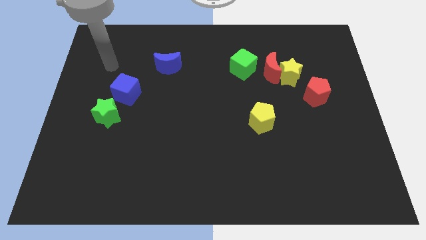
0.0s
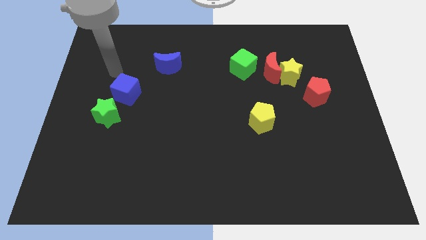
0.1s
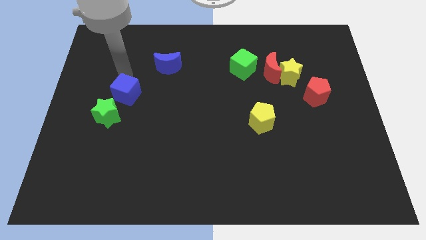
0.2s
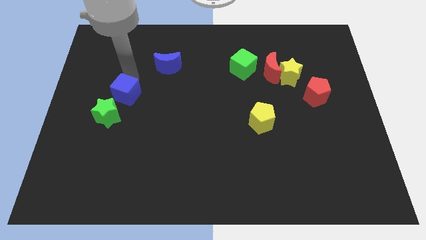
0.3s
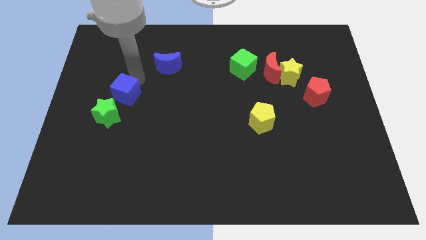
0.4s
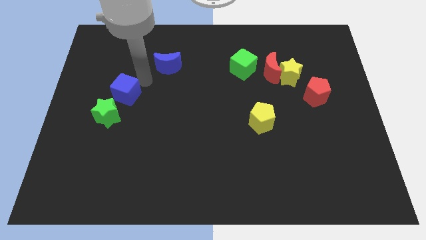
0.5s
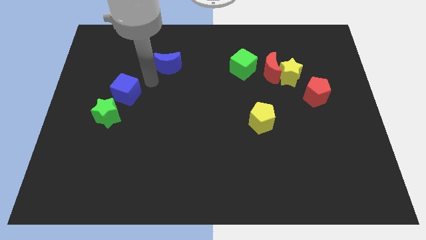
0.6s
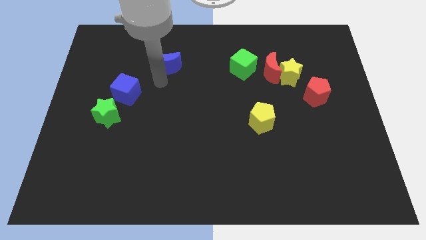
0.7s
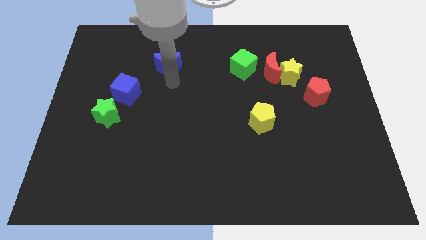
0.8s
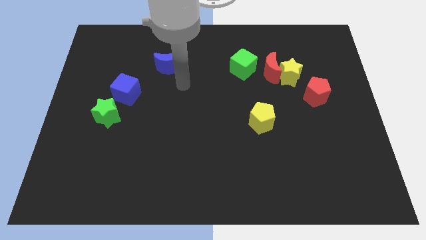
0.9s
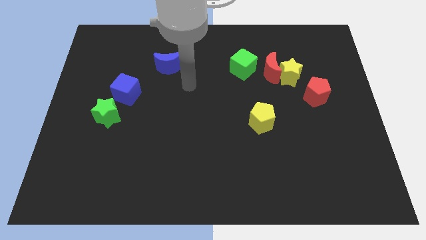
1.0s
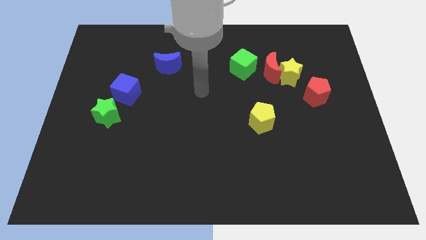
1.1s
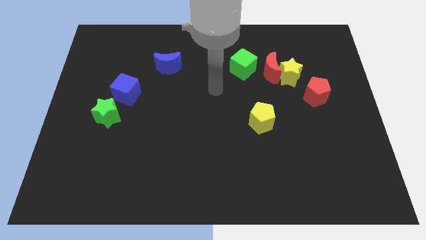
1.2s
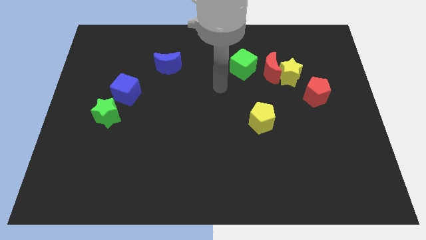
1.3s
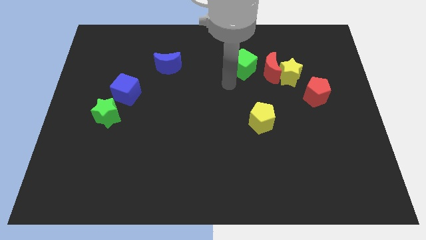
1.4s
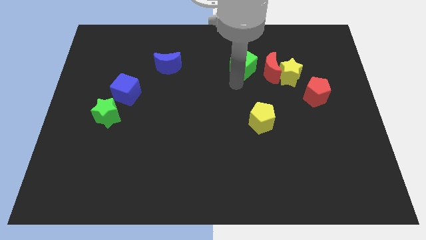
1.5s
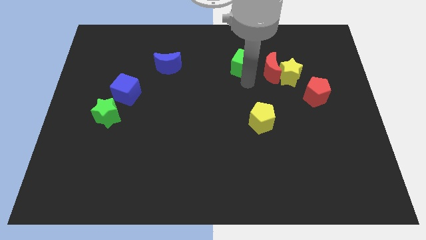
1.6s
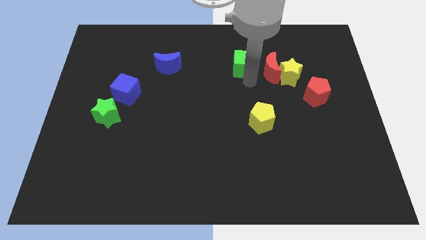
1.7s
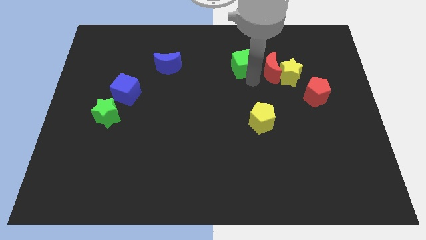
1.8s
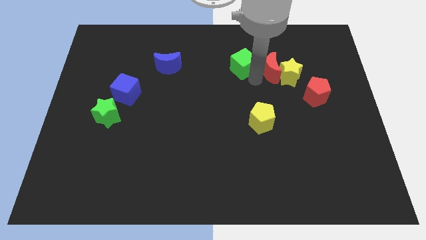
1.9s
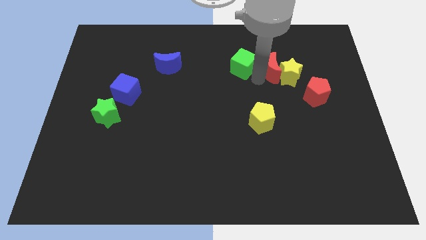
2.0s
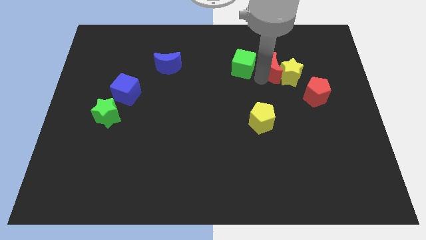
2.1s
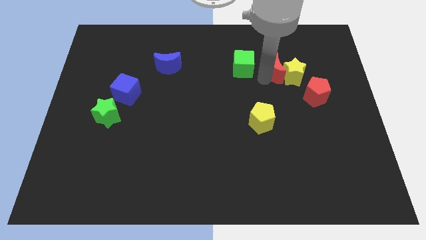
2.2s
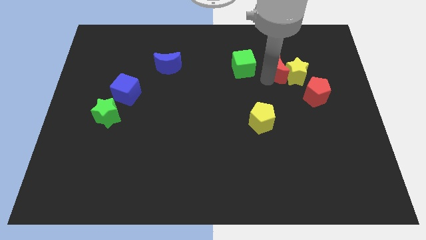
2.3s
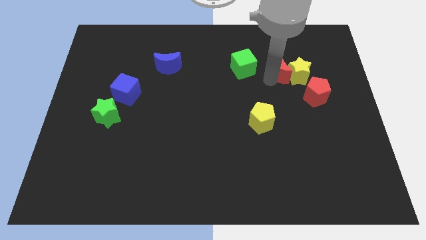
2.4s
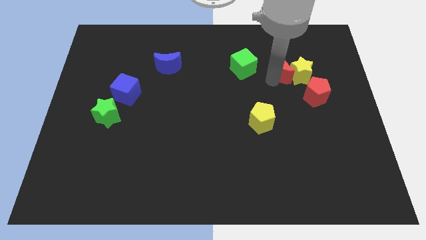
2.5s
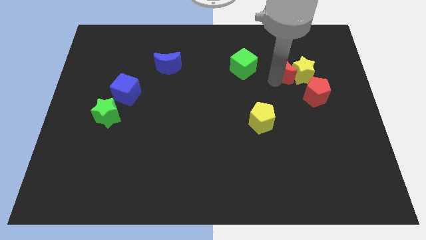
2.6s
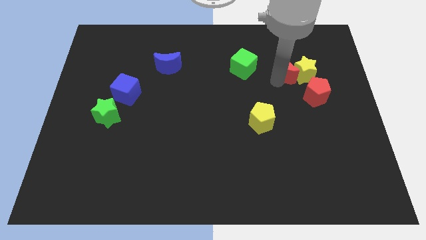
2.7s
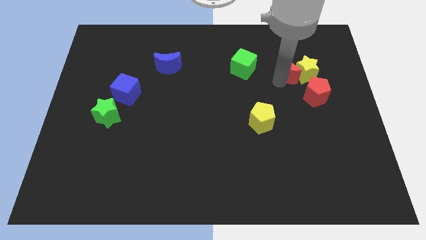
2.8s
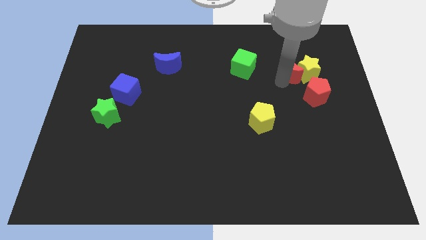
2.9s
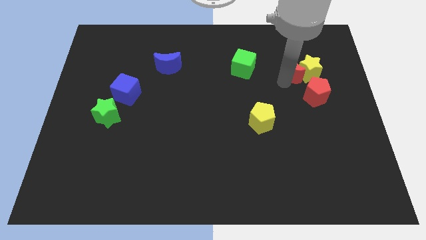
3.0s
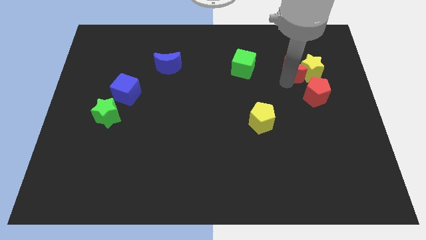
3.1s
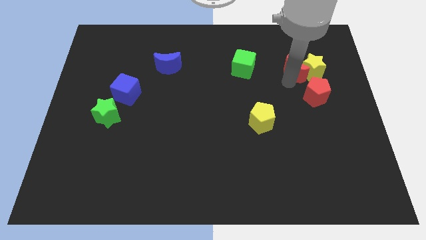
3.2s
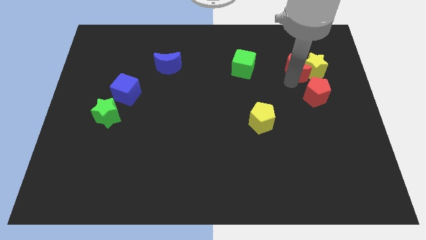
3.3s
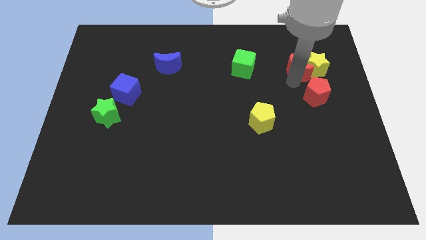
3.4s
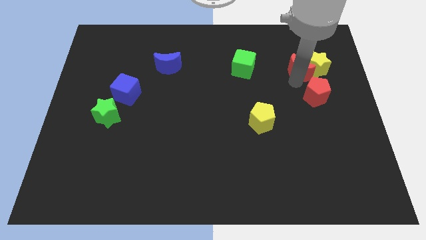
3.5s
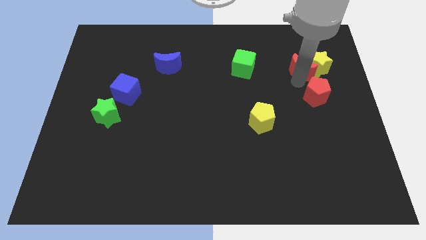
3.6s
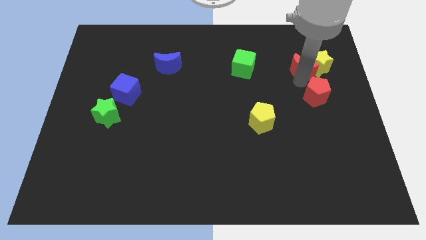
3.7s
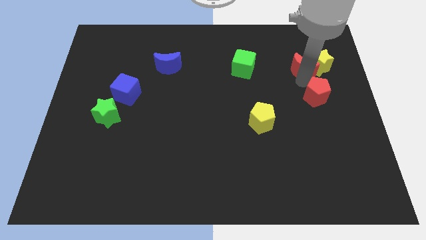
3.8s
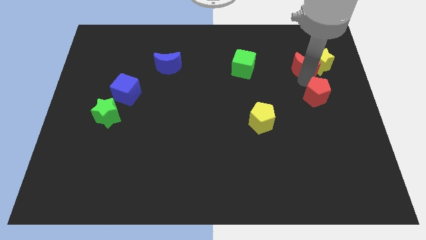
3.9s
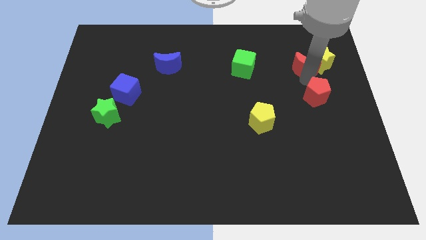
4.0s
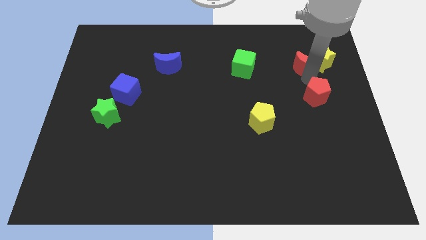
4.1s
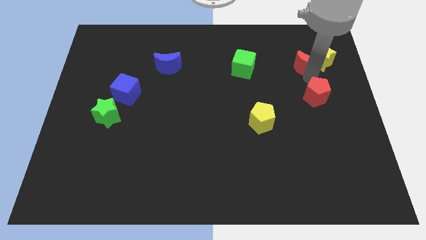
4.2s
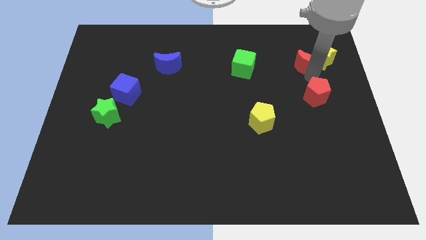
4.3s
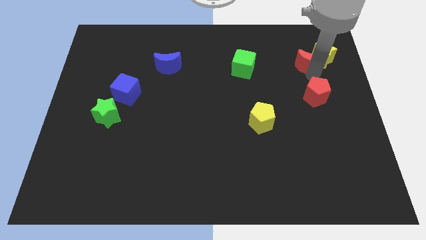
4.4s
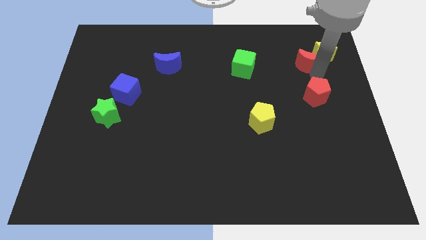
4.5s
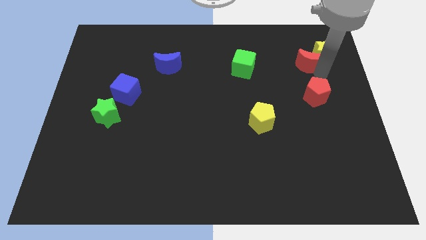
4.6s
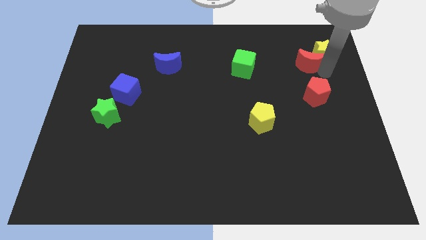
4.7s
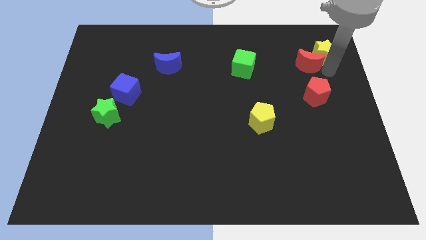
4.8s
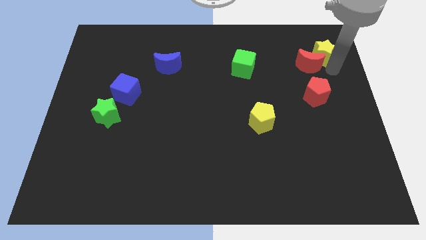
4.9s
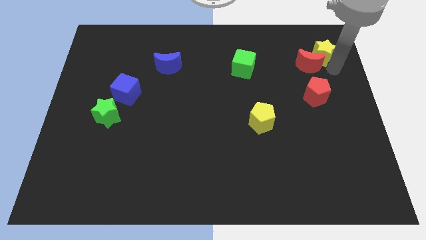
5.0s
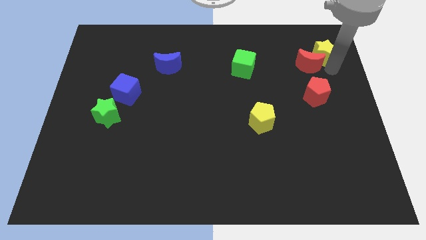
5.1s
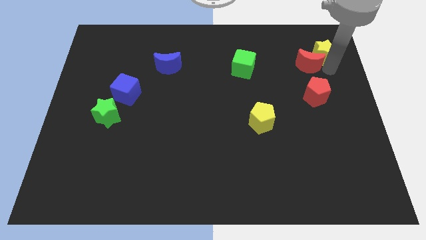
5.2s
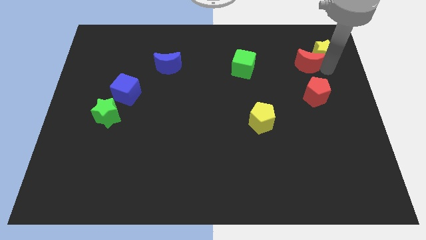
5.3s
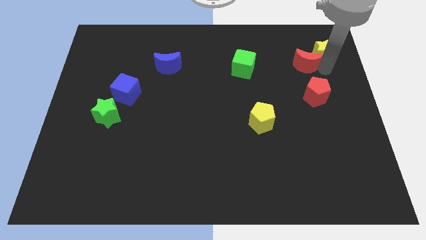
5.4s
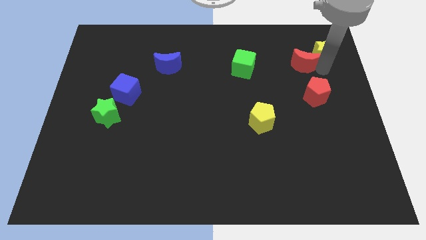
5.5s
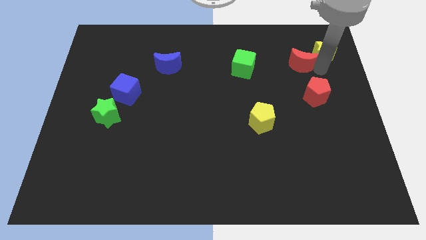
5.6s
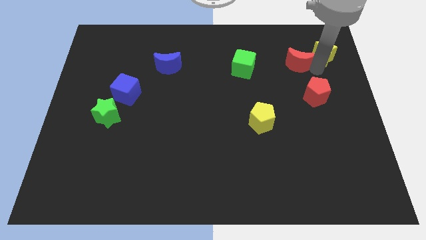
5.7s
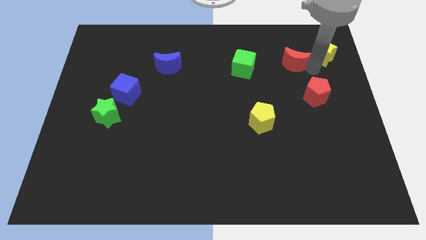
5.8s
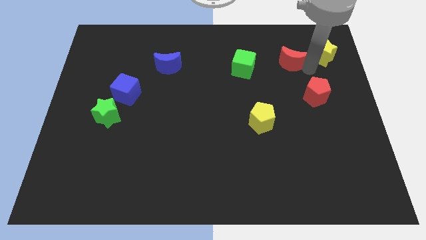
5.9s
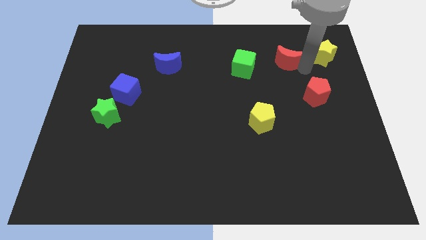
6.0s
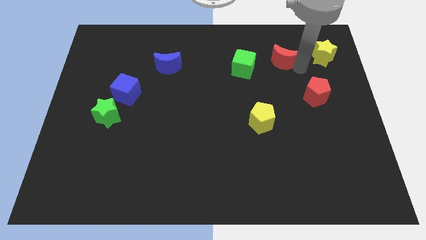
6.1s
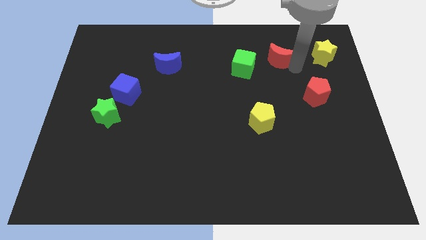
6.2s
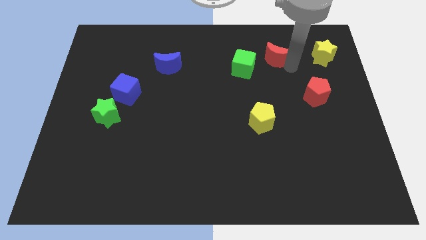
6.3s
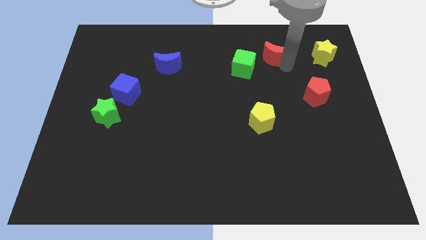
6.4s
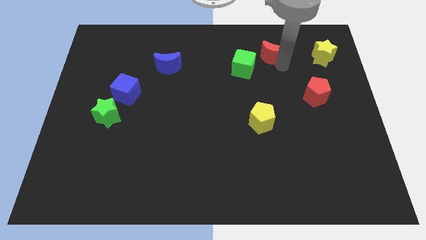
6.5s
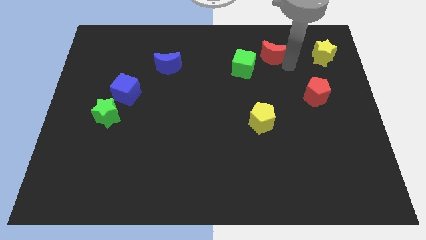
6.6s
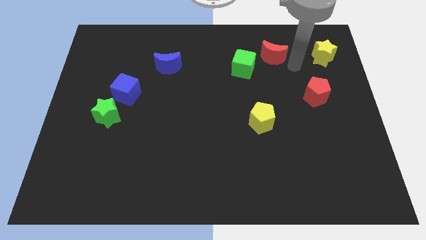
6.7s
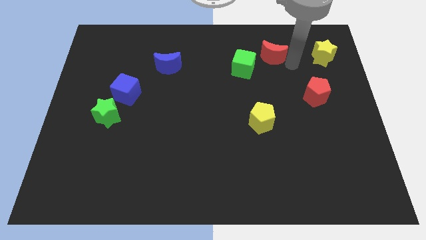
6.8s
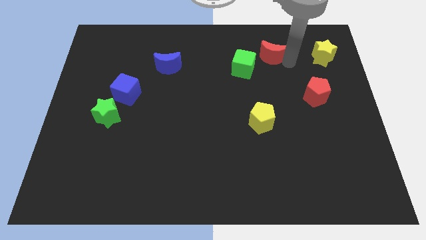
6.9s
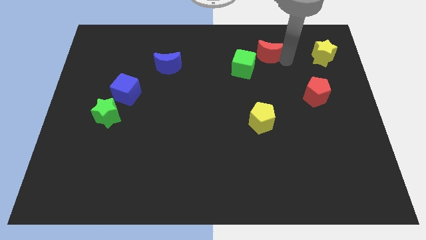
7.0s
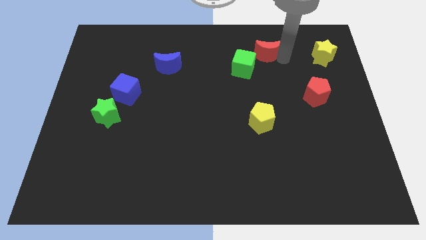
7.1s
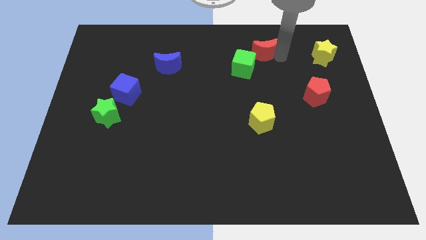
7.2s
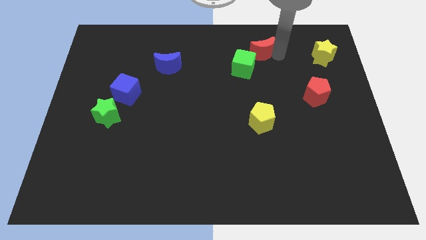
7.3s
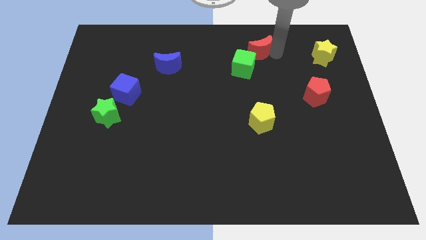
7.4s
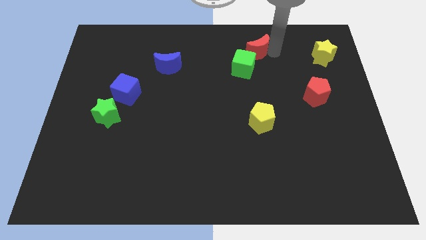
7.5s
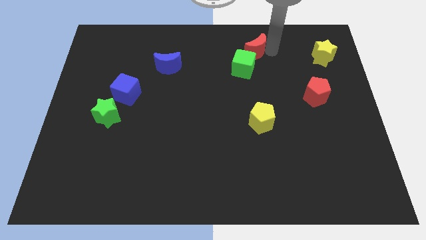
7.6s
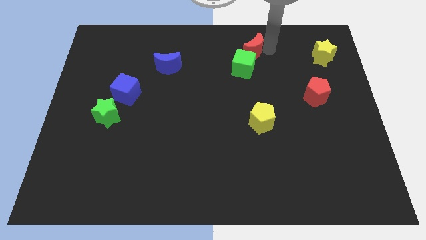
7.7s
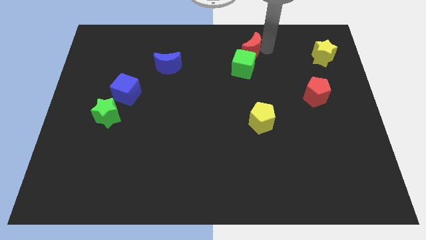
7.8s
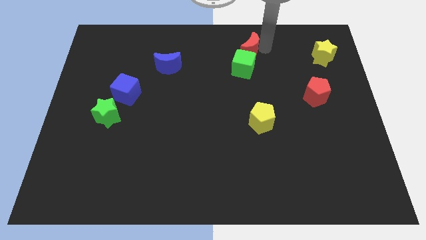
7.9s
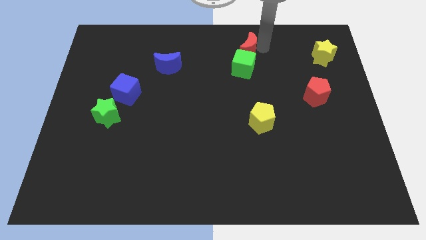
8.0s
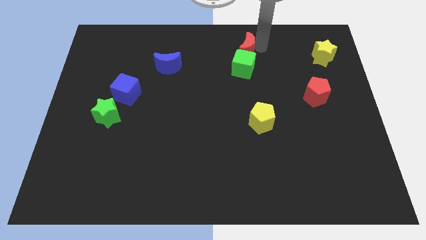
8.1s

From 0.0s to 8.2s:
pull the red moon apart from the yellow star and green cube

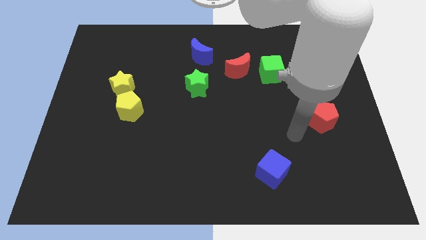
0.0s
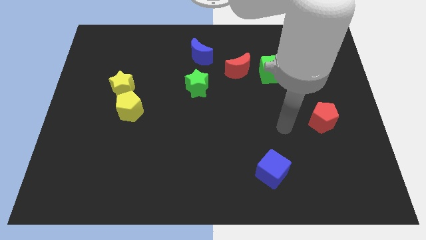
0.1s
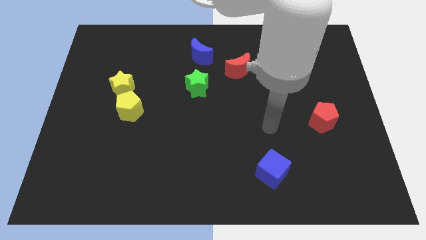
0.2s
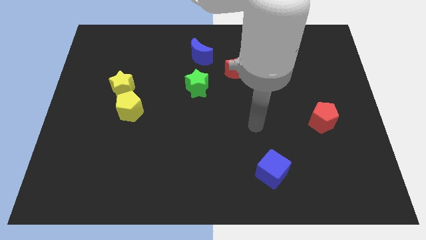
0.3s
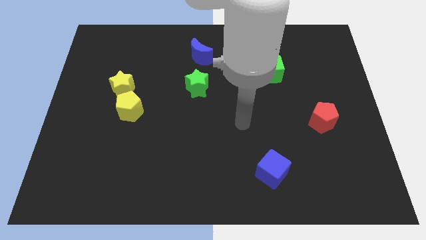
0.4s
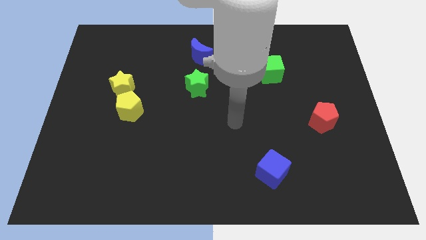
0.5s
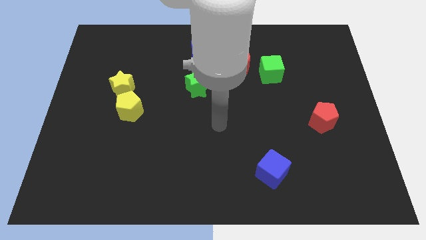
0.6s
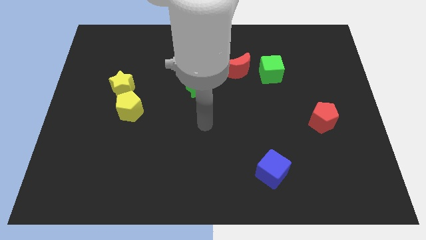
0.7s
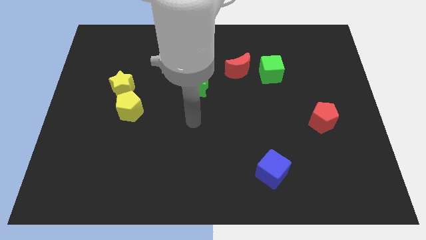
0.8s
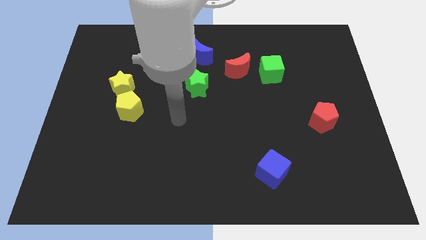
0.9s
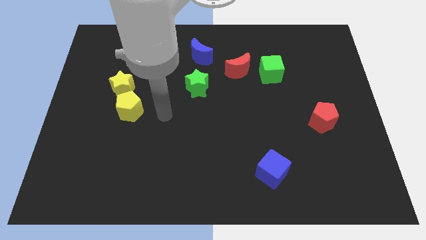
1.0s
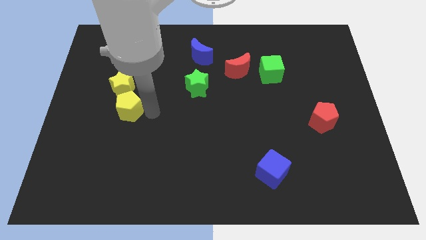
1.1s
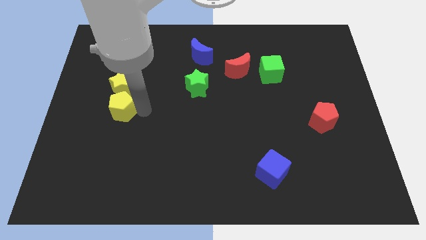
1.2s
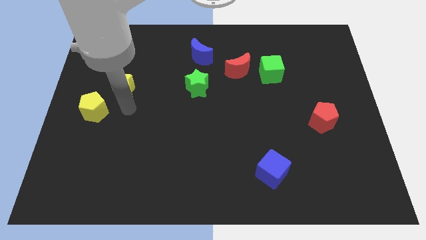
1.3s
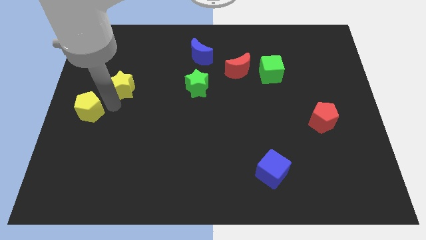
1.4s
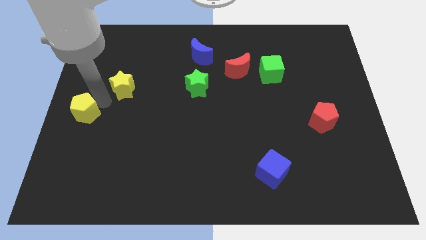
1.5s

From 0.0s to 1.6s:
move the yellow star away from the yellow pentagon
